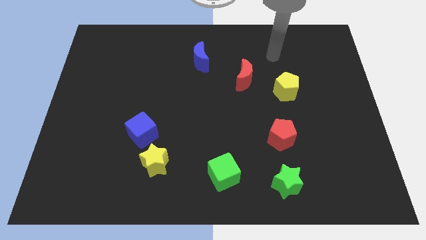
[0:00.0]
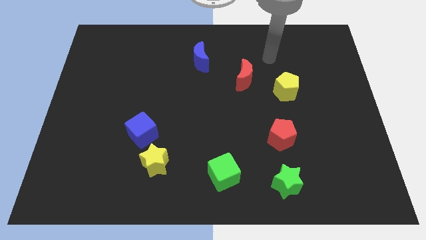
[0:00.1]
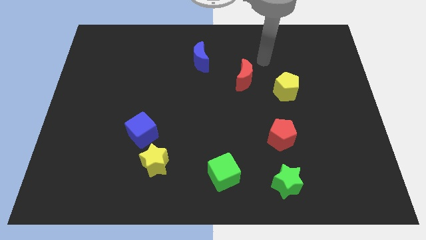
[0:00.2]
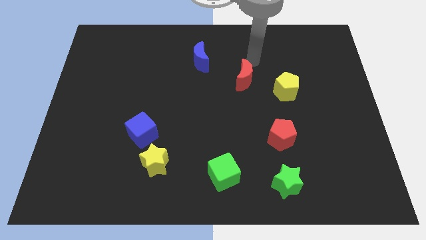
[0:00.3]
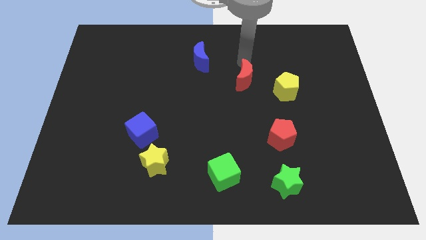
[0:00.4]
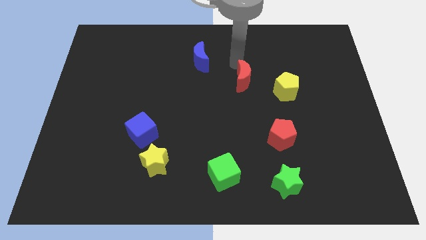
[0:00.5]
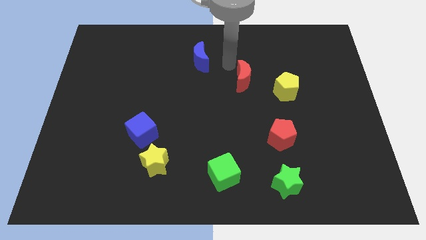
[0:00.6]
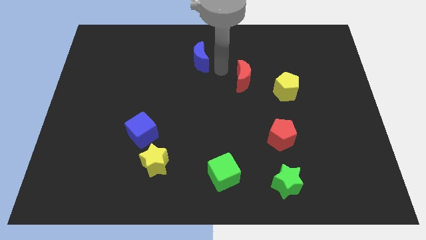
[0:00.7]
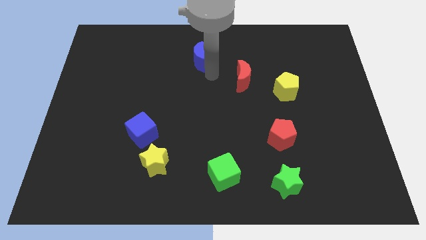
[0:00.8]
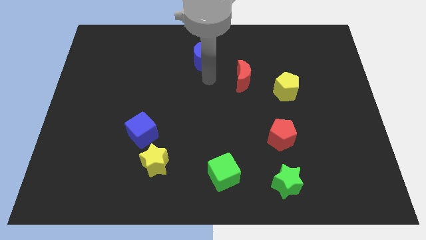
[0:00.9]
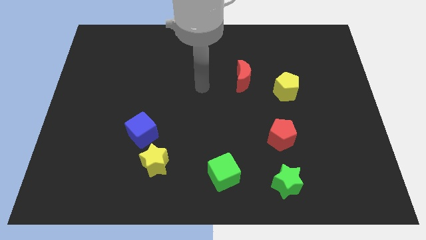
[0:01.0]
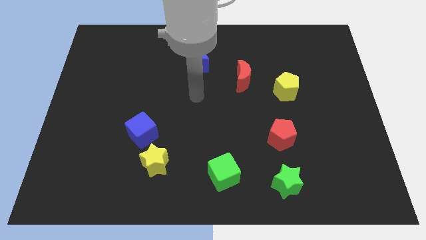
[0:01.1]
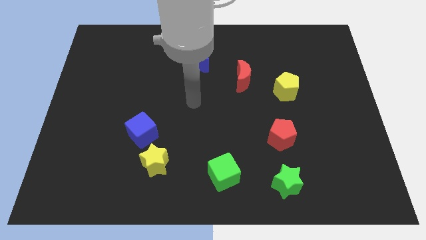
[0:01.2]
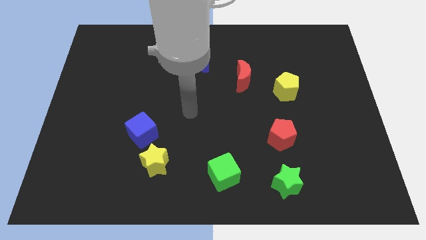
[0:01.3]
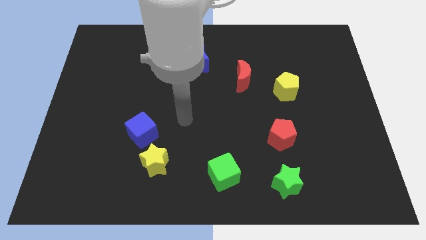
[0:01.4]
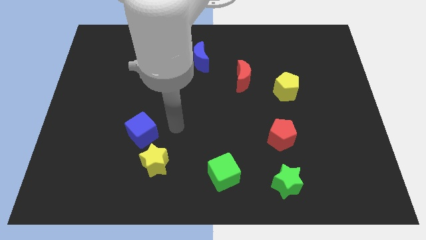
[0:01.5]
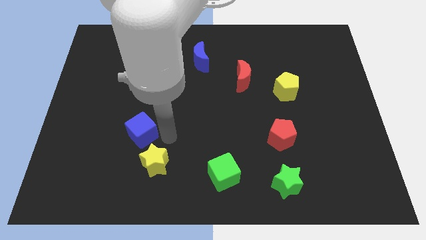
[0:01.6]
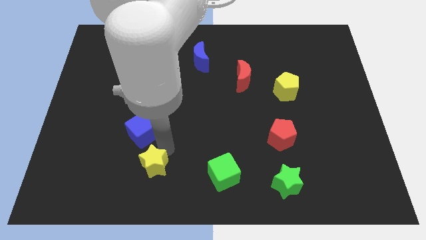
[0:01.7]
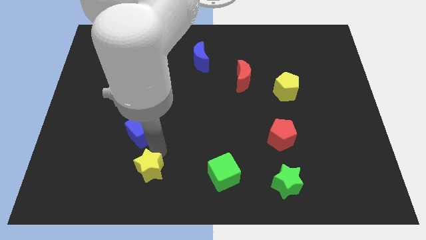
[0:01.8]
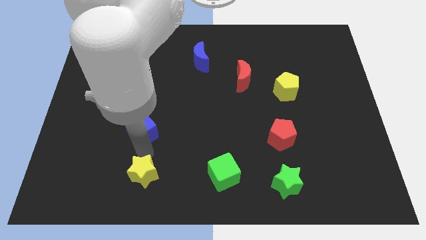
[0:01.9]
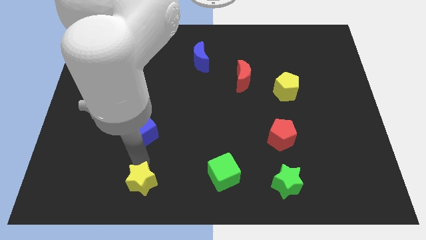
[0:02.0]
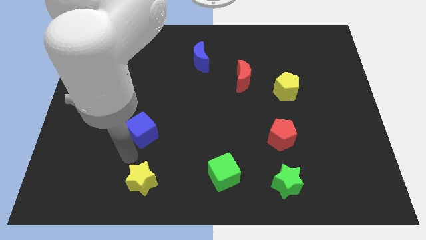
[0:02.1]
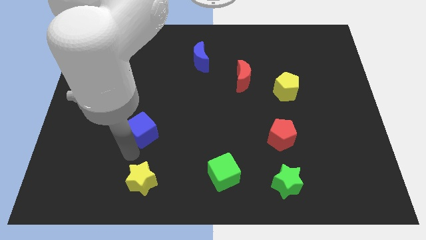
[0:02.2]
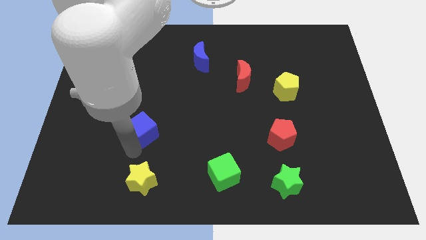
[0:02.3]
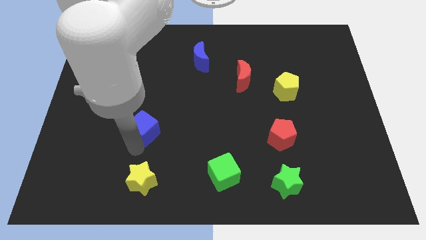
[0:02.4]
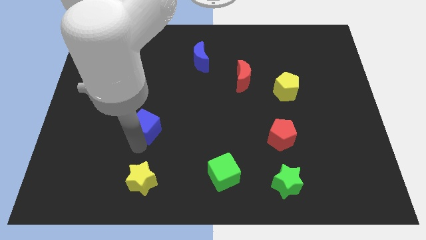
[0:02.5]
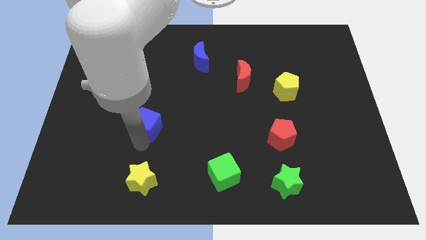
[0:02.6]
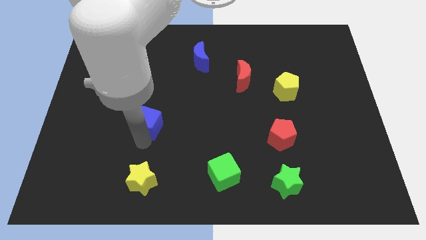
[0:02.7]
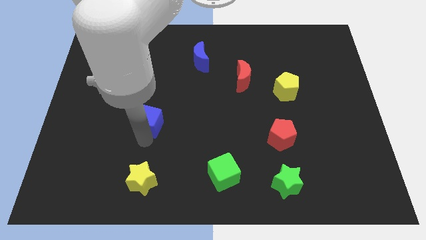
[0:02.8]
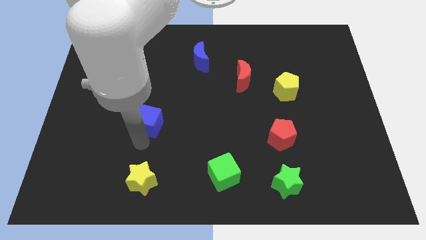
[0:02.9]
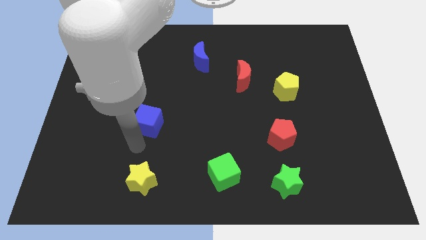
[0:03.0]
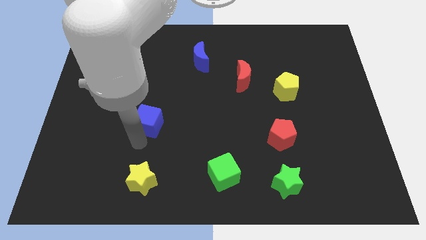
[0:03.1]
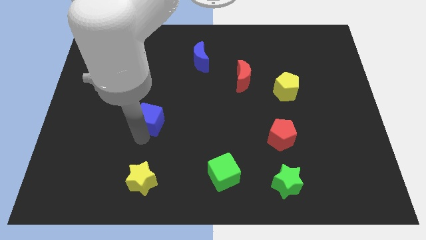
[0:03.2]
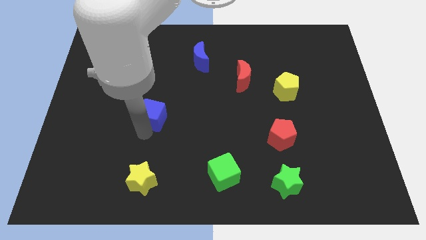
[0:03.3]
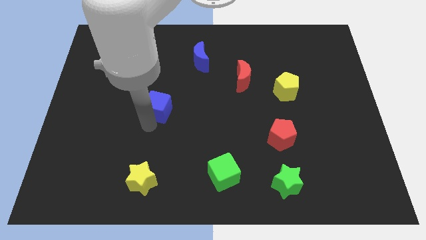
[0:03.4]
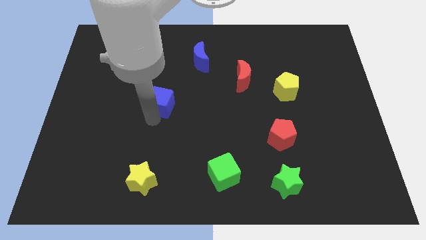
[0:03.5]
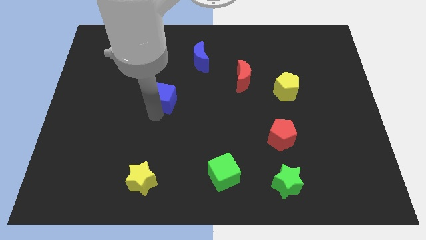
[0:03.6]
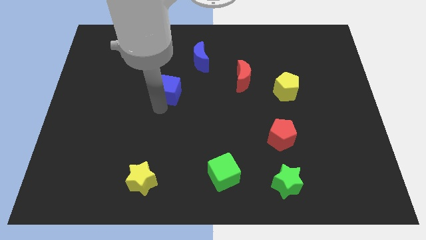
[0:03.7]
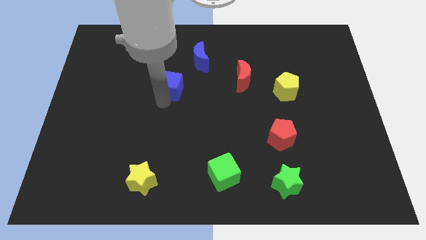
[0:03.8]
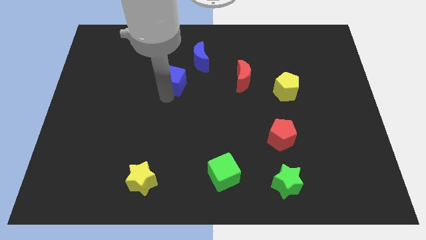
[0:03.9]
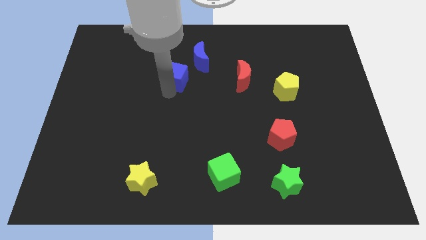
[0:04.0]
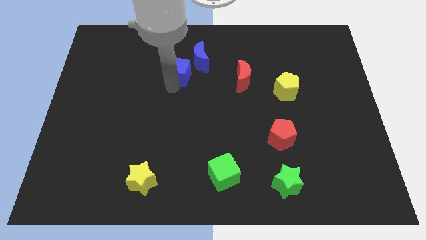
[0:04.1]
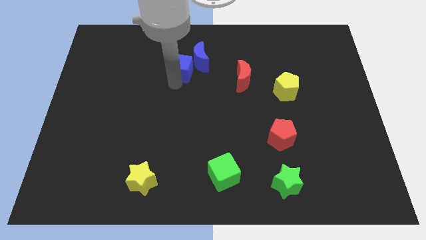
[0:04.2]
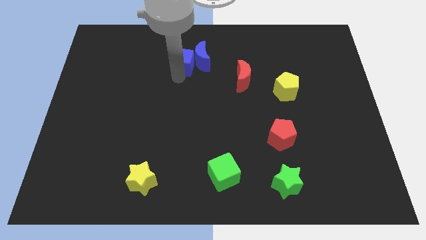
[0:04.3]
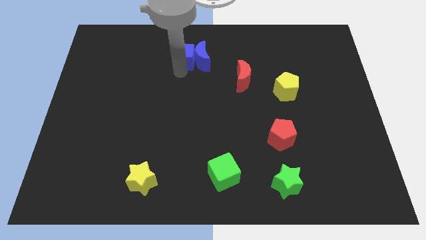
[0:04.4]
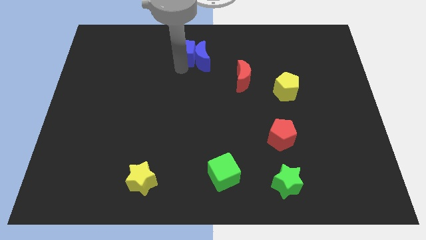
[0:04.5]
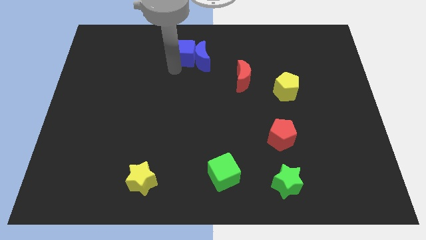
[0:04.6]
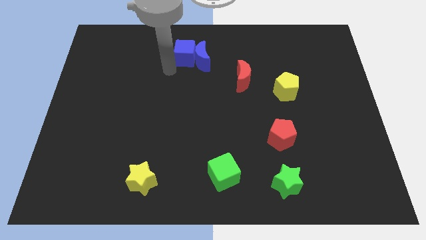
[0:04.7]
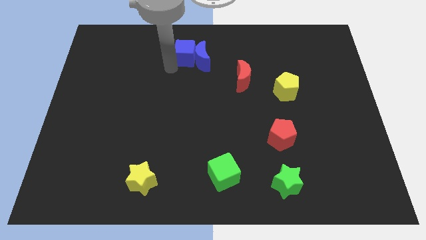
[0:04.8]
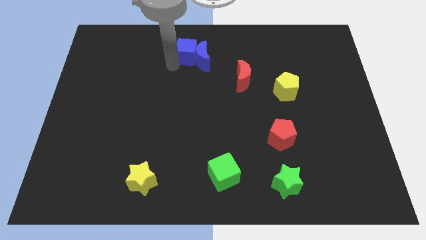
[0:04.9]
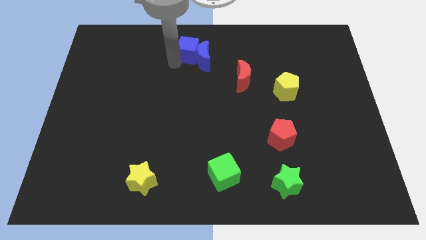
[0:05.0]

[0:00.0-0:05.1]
slide the blue cube to the top side

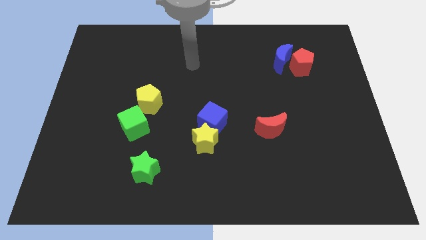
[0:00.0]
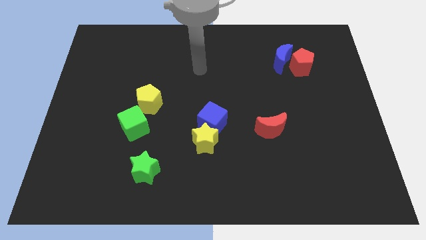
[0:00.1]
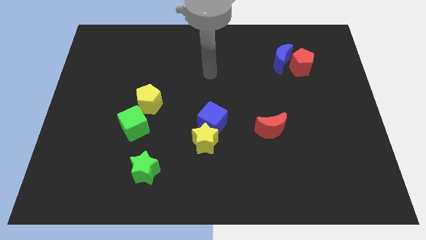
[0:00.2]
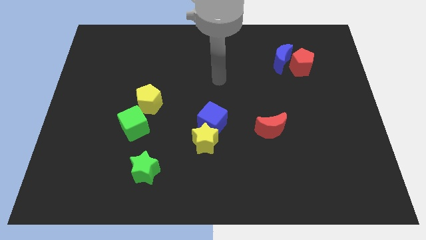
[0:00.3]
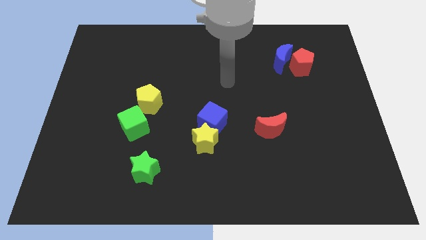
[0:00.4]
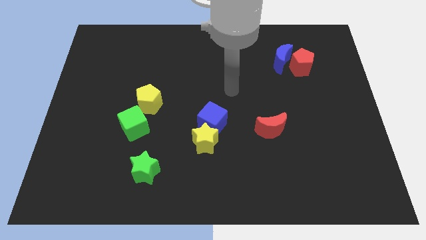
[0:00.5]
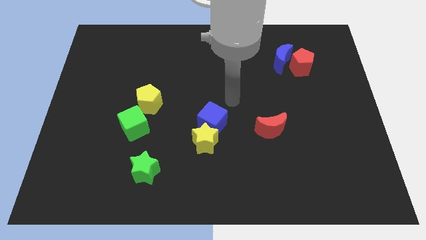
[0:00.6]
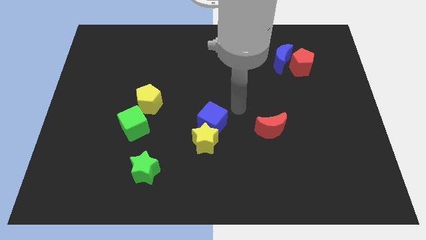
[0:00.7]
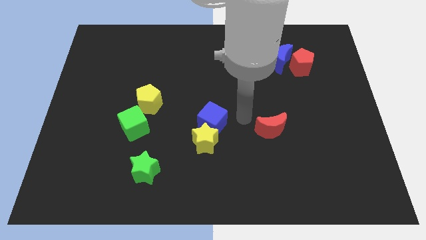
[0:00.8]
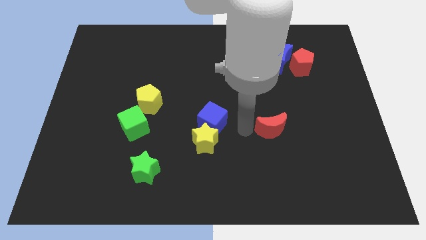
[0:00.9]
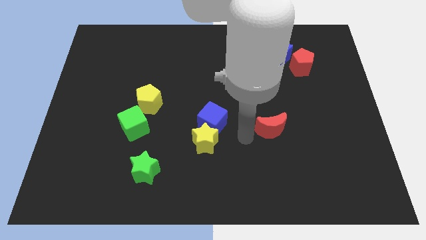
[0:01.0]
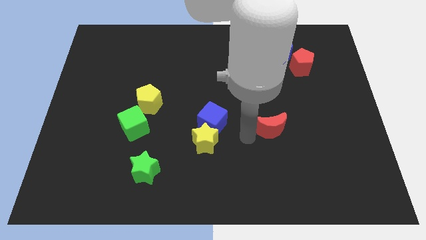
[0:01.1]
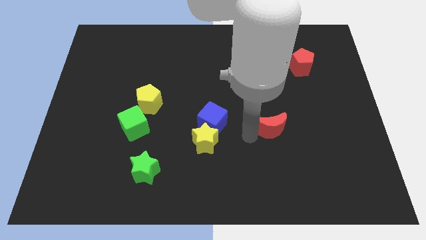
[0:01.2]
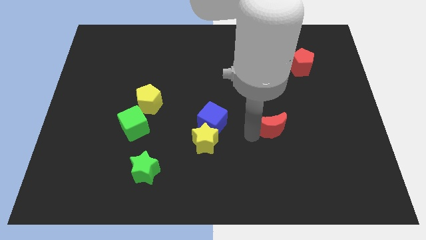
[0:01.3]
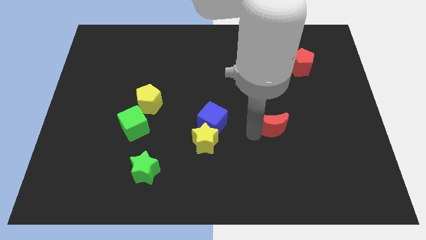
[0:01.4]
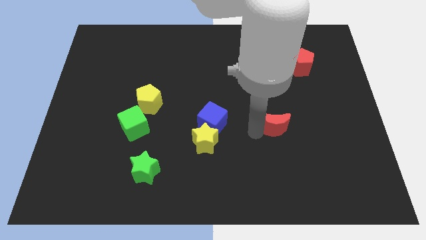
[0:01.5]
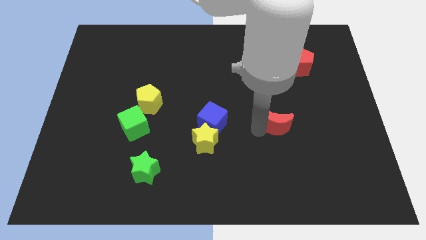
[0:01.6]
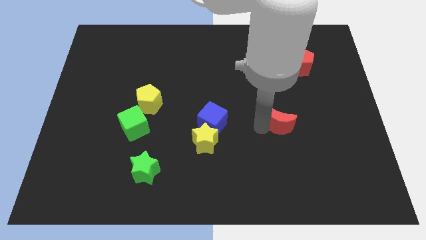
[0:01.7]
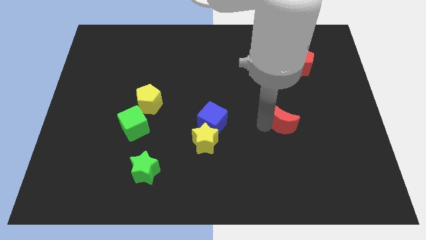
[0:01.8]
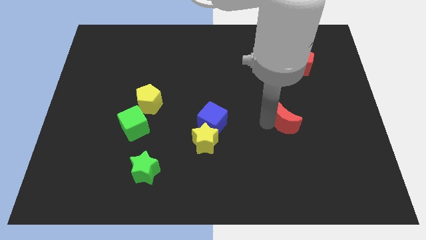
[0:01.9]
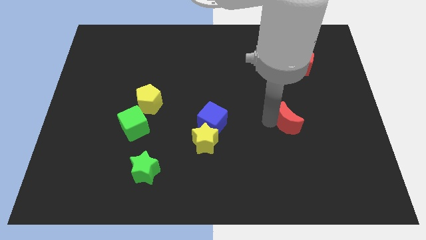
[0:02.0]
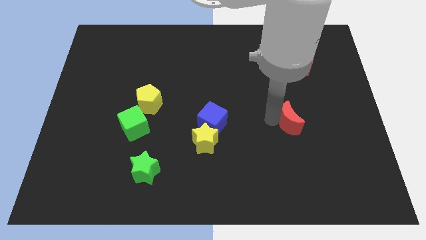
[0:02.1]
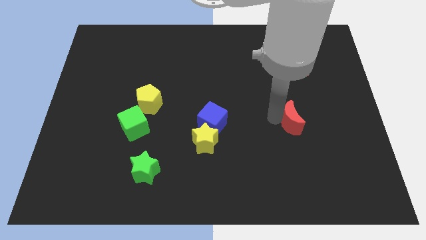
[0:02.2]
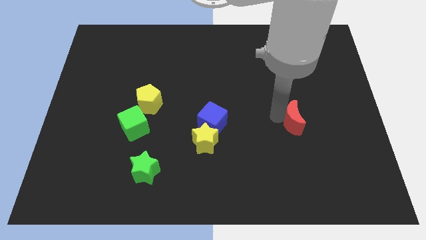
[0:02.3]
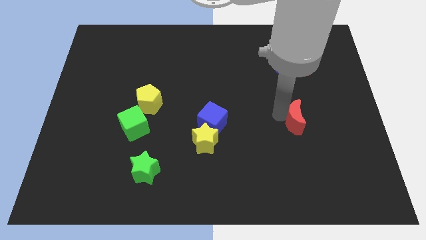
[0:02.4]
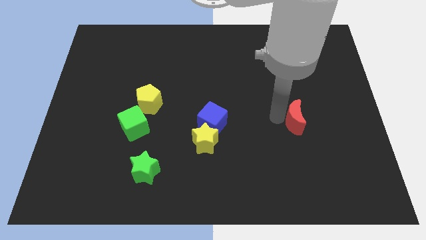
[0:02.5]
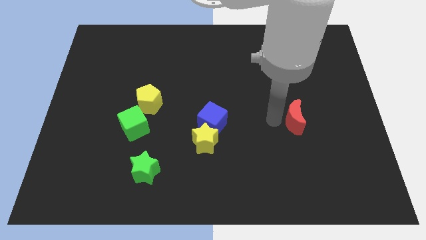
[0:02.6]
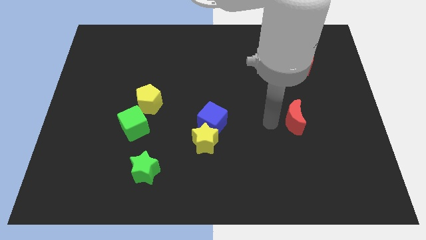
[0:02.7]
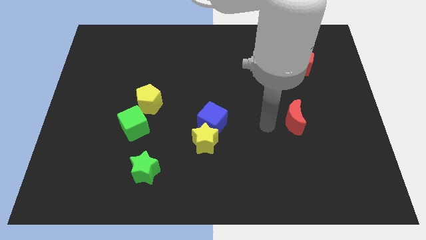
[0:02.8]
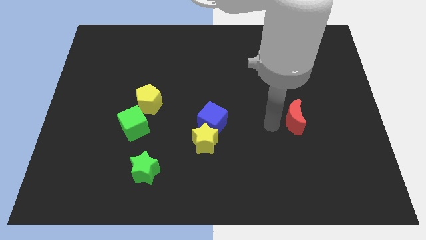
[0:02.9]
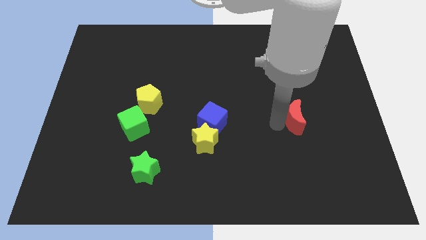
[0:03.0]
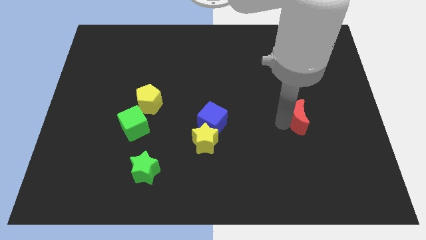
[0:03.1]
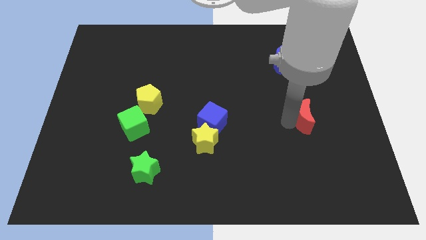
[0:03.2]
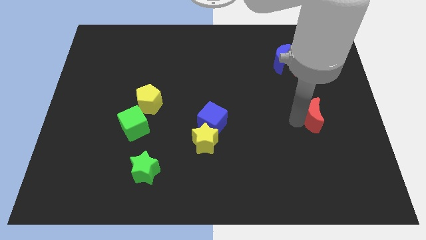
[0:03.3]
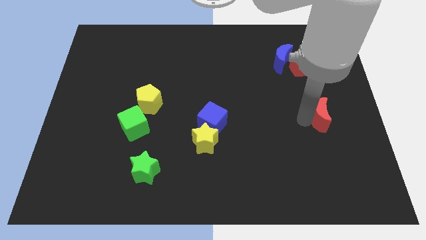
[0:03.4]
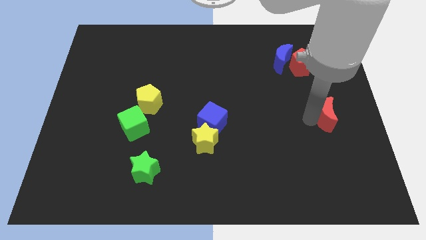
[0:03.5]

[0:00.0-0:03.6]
put the red moon to the right side of the board
